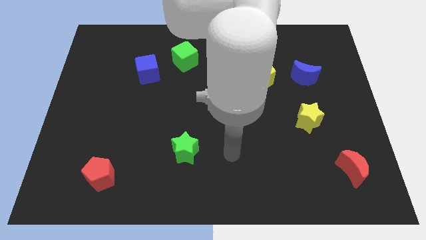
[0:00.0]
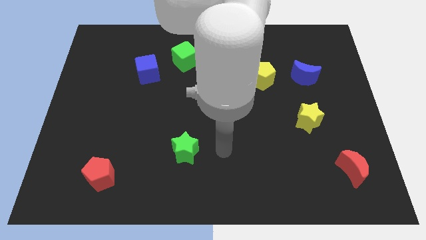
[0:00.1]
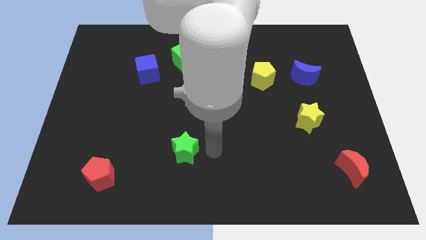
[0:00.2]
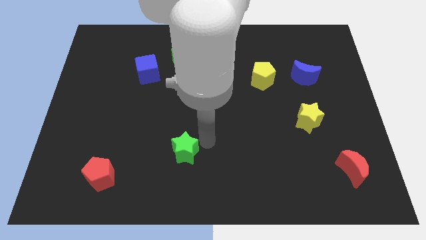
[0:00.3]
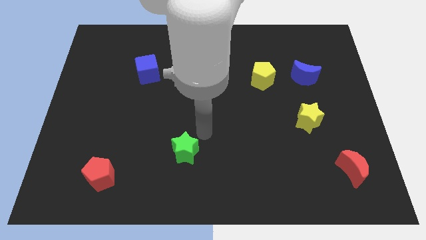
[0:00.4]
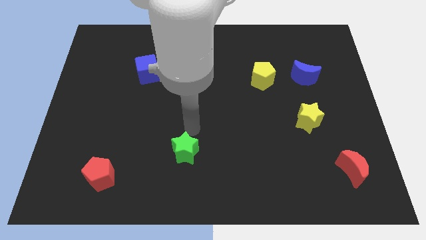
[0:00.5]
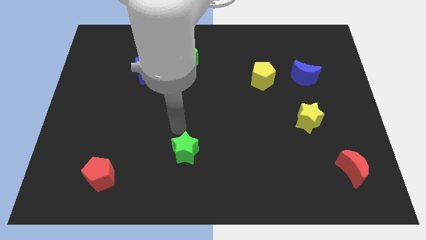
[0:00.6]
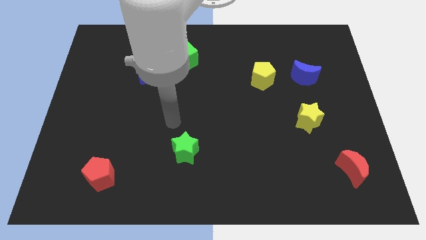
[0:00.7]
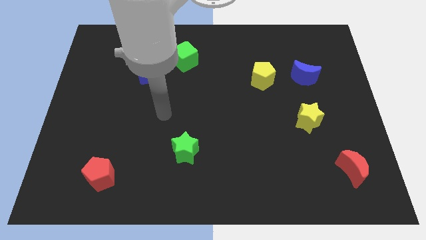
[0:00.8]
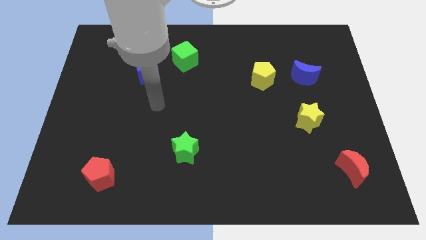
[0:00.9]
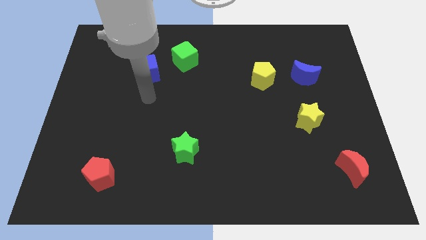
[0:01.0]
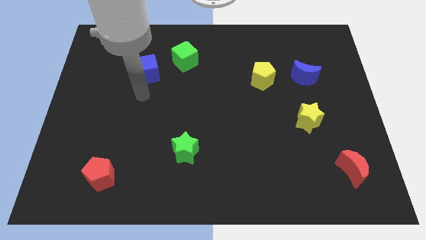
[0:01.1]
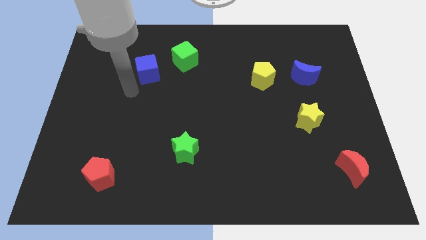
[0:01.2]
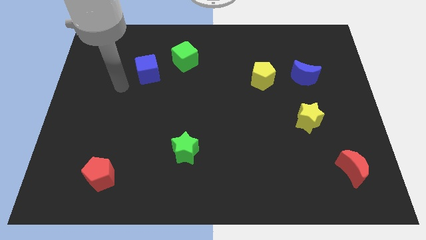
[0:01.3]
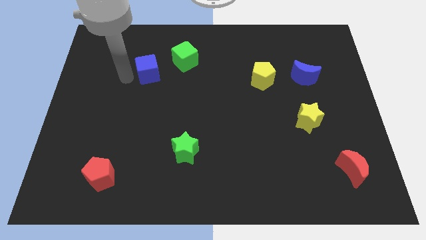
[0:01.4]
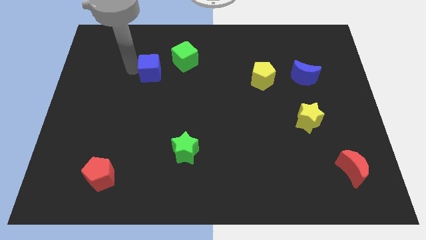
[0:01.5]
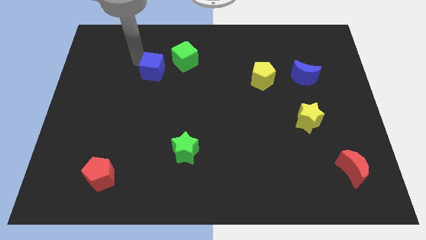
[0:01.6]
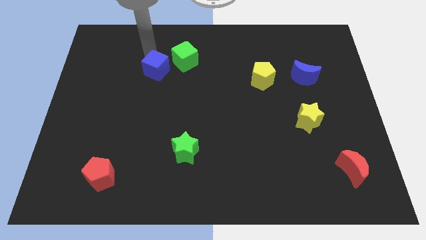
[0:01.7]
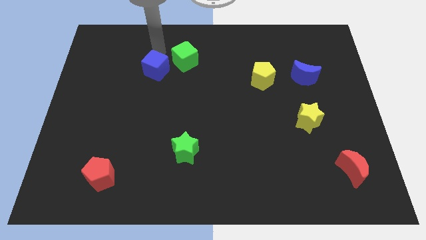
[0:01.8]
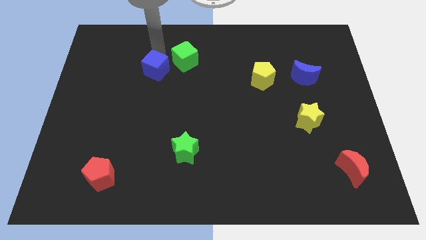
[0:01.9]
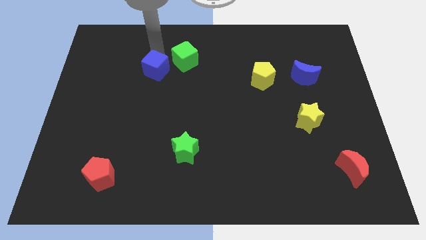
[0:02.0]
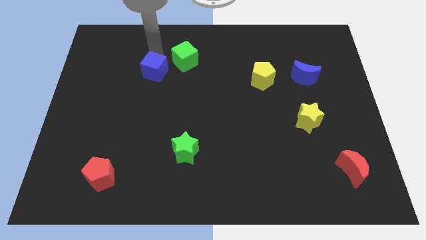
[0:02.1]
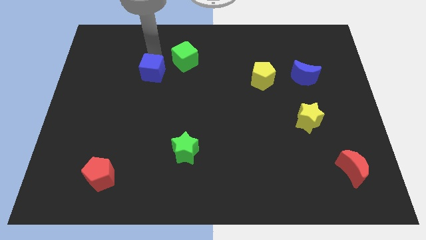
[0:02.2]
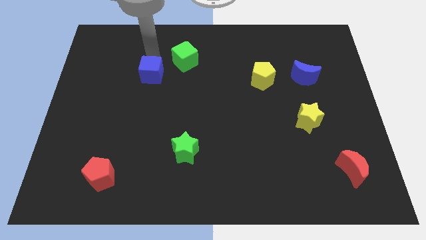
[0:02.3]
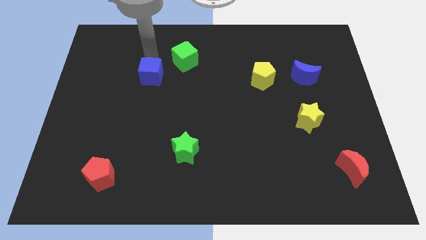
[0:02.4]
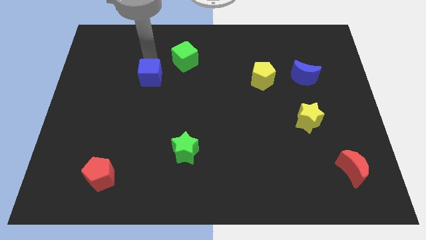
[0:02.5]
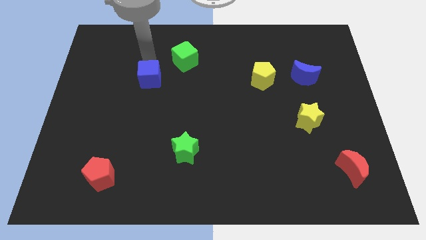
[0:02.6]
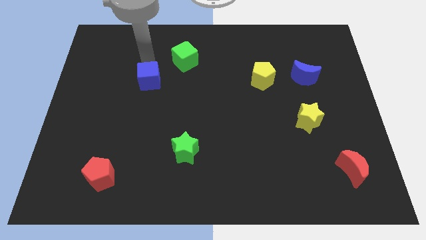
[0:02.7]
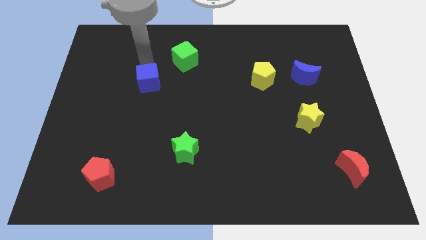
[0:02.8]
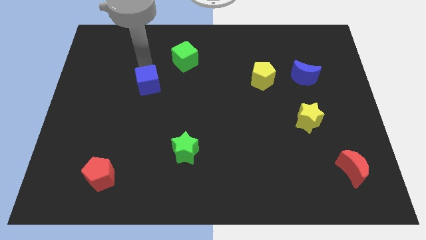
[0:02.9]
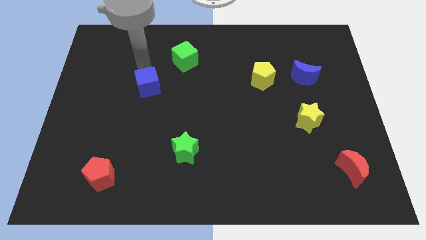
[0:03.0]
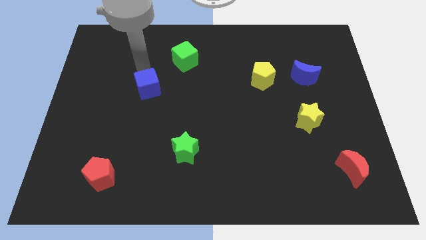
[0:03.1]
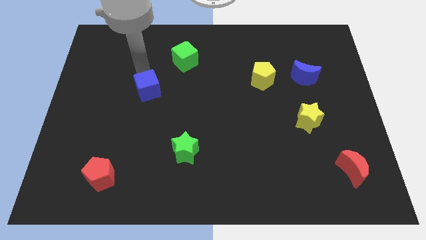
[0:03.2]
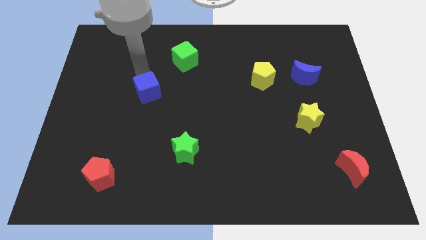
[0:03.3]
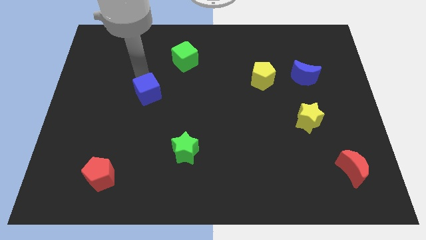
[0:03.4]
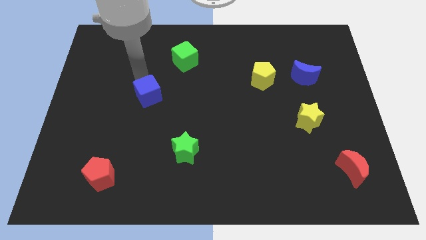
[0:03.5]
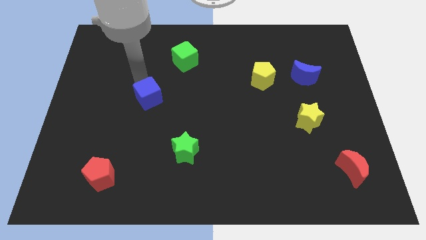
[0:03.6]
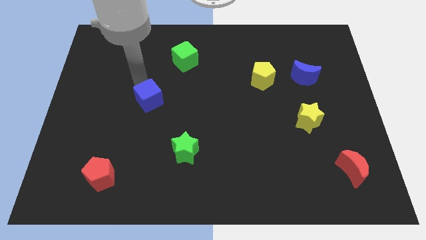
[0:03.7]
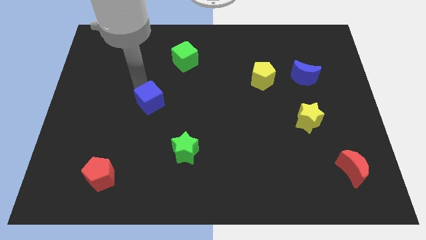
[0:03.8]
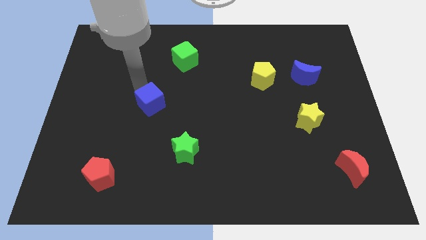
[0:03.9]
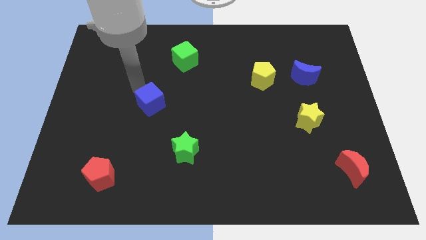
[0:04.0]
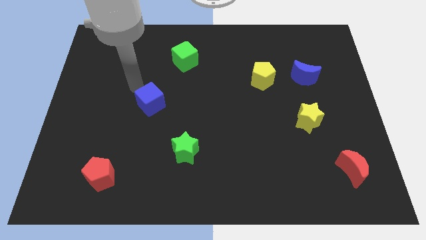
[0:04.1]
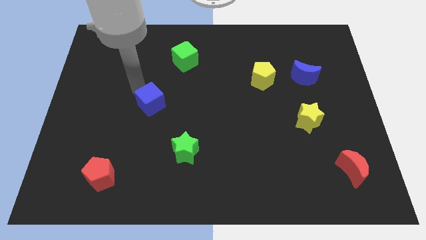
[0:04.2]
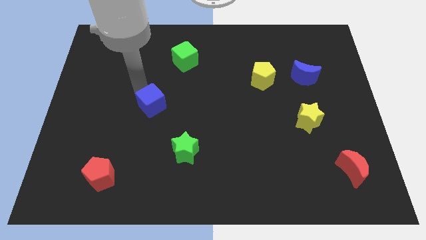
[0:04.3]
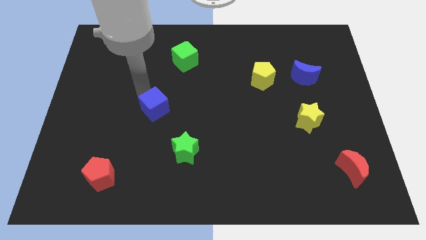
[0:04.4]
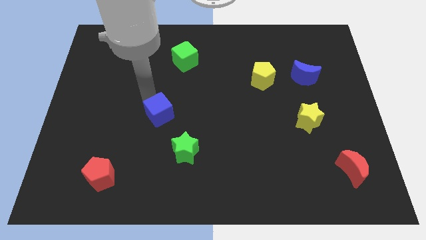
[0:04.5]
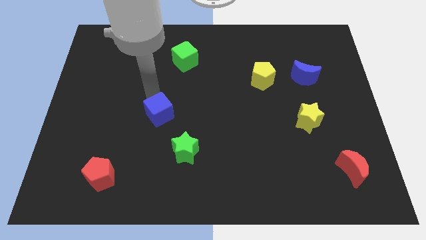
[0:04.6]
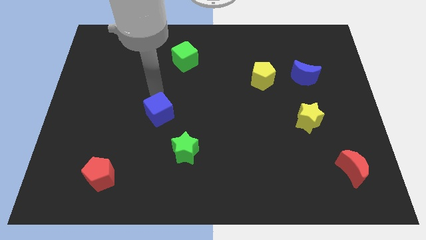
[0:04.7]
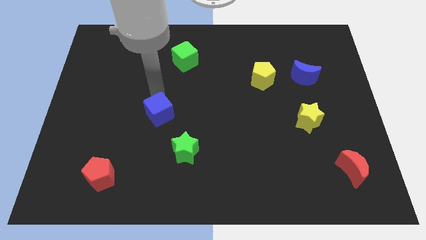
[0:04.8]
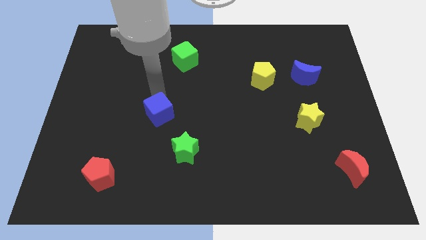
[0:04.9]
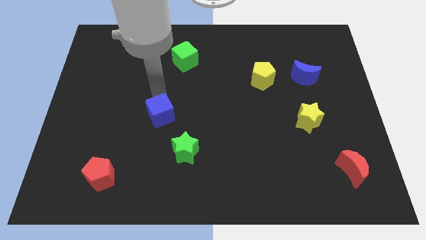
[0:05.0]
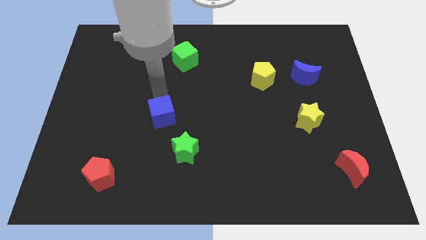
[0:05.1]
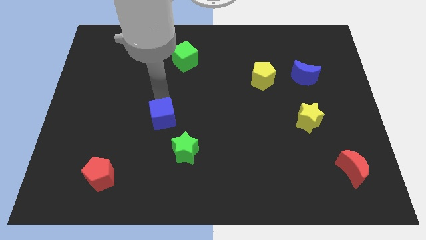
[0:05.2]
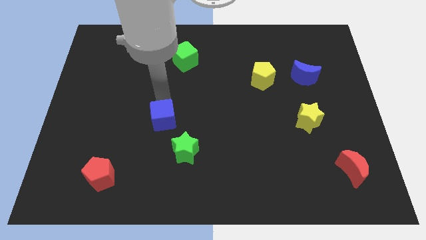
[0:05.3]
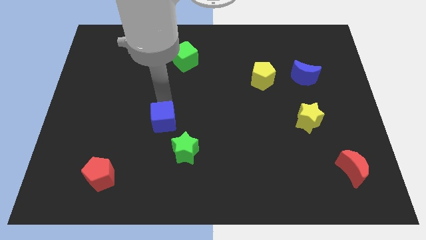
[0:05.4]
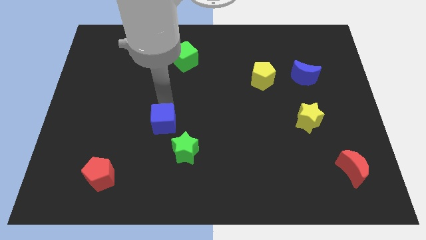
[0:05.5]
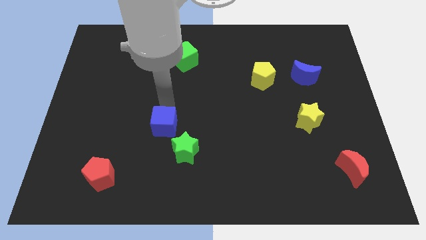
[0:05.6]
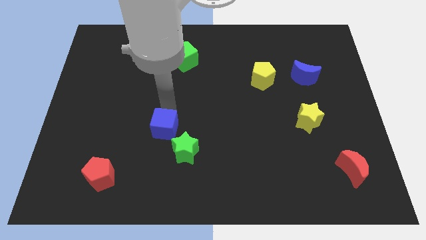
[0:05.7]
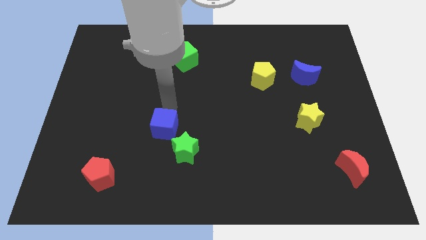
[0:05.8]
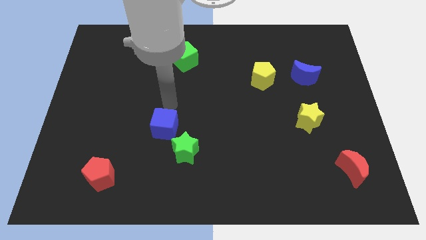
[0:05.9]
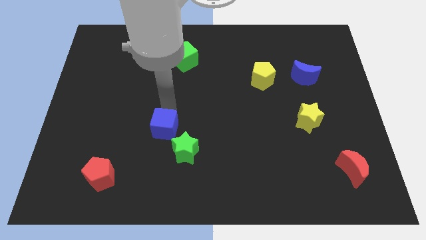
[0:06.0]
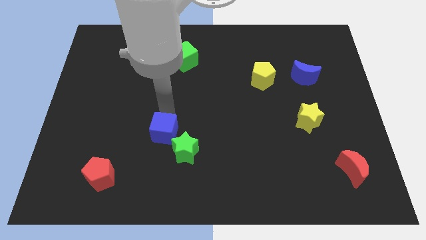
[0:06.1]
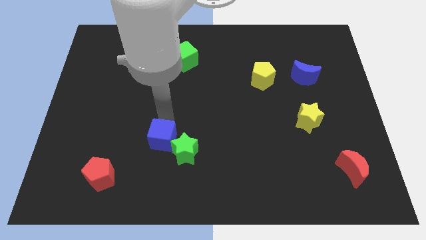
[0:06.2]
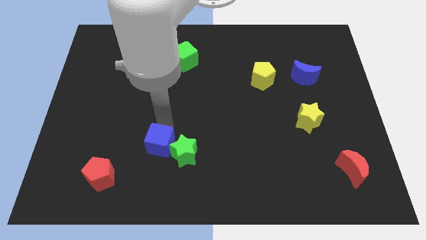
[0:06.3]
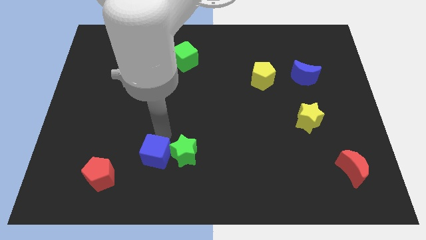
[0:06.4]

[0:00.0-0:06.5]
put the blue cube to the right side of the red pentagon

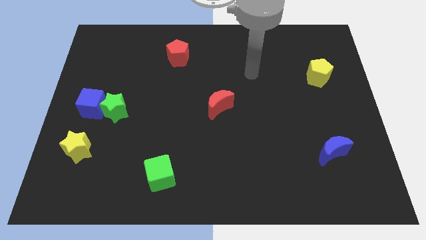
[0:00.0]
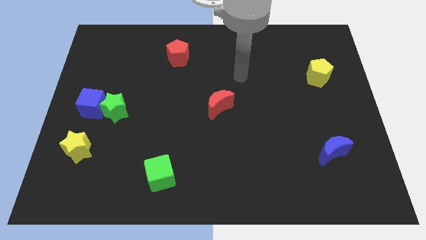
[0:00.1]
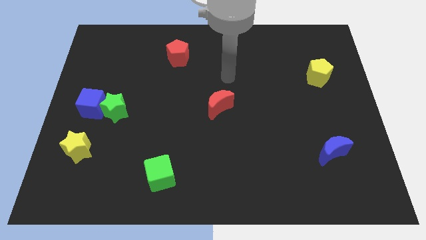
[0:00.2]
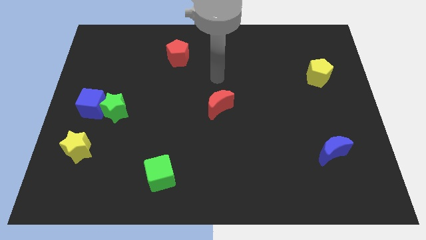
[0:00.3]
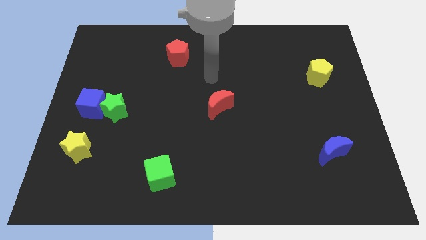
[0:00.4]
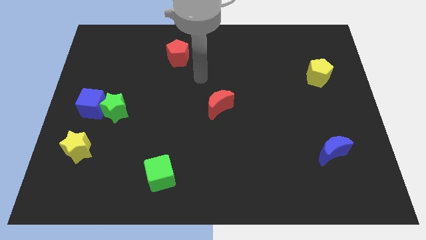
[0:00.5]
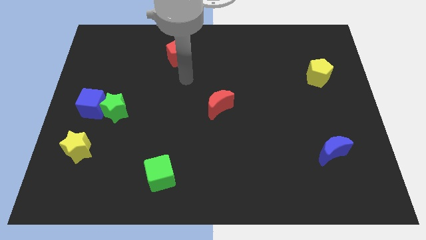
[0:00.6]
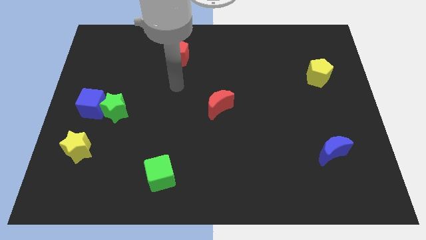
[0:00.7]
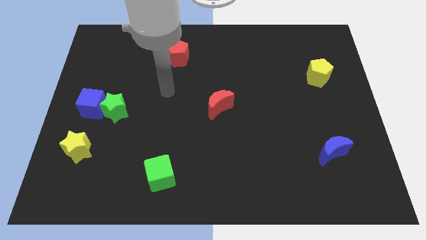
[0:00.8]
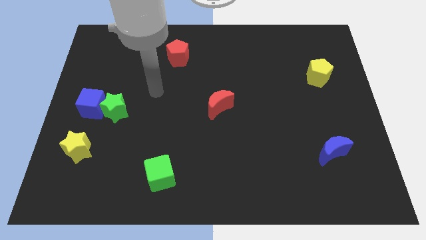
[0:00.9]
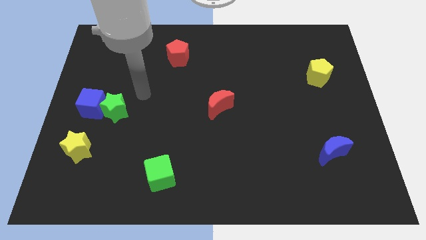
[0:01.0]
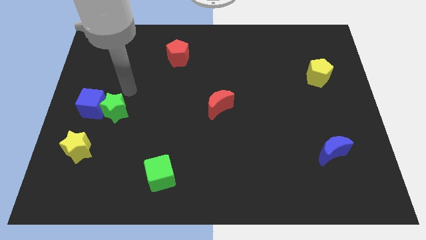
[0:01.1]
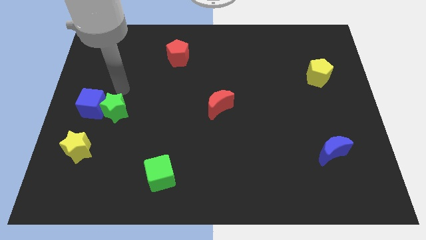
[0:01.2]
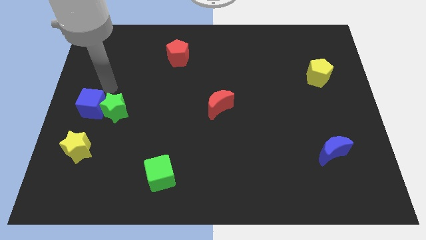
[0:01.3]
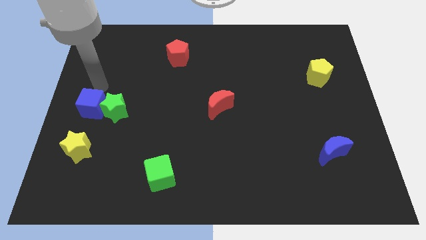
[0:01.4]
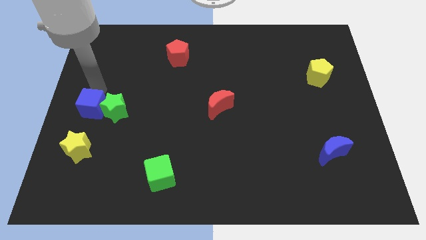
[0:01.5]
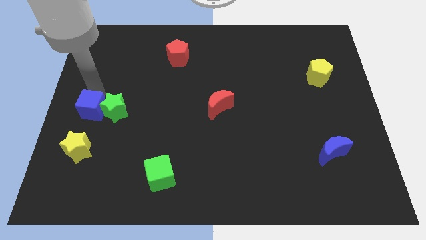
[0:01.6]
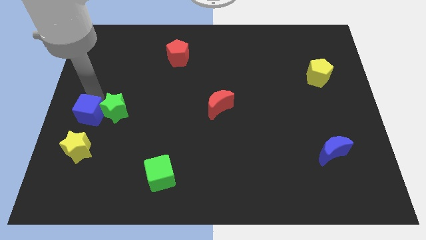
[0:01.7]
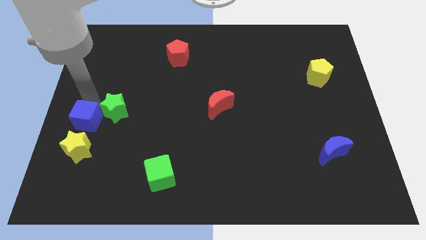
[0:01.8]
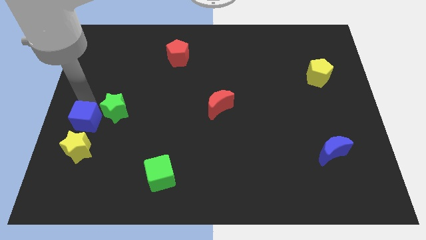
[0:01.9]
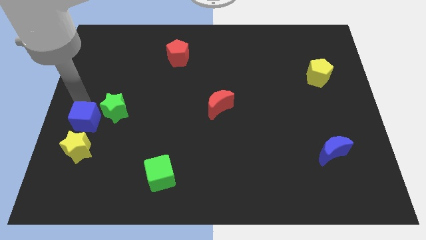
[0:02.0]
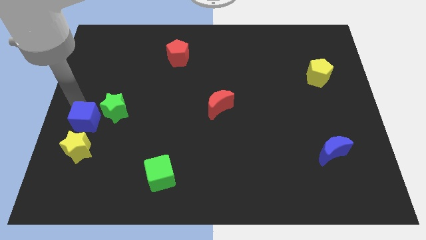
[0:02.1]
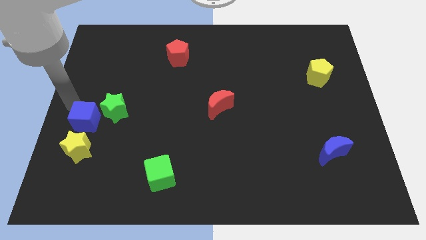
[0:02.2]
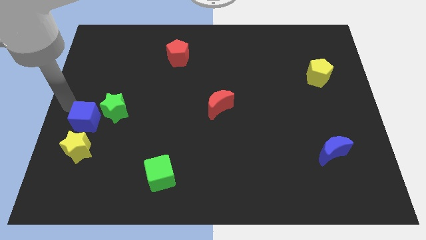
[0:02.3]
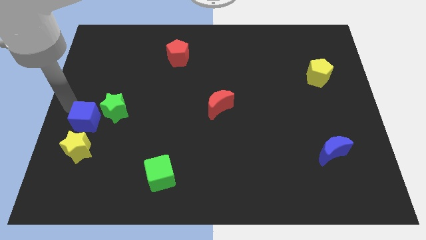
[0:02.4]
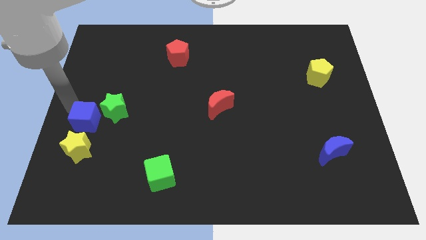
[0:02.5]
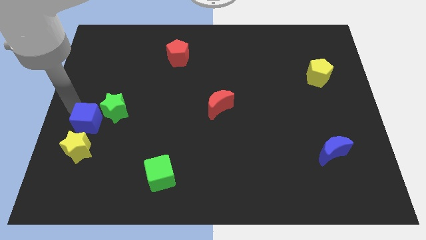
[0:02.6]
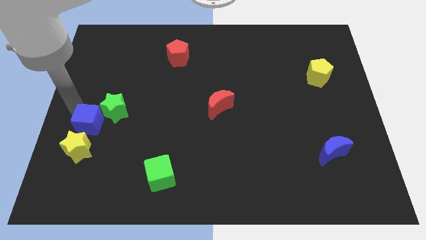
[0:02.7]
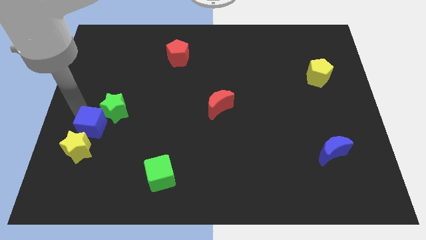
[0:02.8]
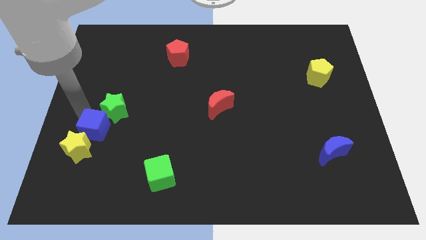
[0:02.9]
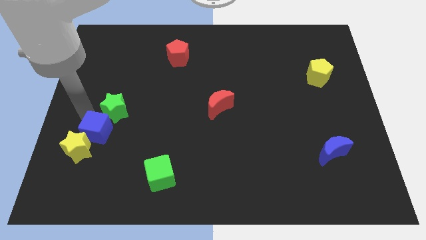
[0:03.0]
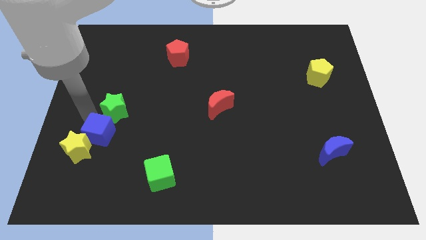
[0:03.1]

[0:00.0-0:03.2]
push the blue cube right of the yellow star
